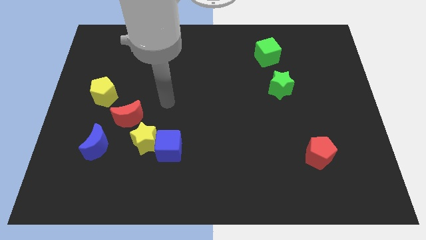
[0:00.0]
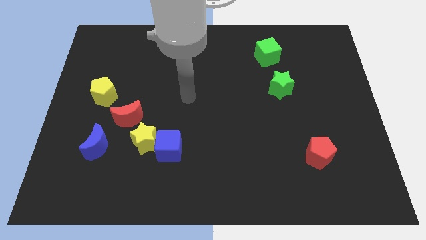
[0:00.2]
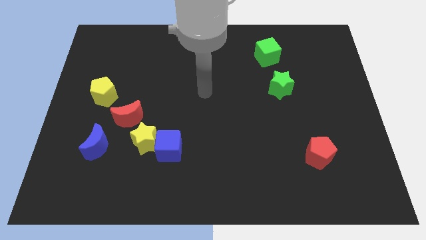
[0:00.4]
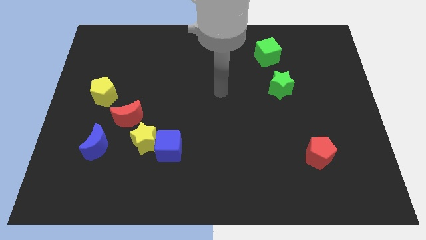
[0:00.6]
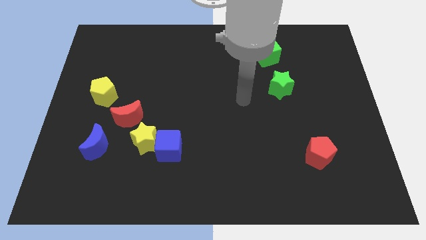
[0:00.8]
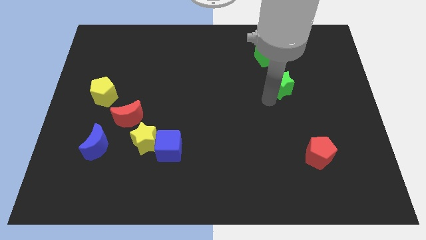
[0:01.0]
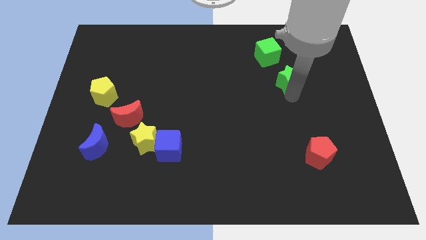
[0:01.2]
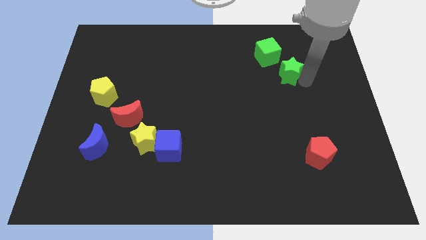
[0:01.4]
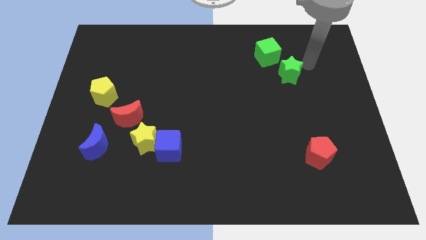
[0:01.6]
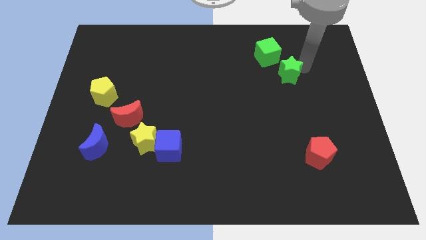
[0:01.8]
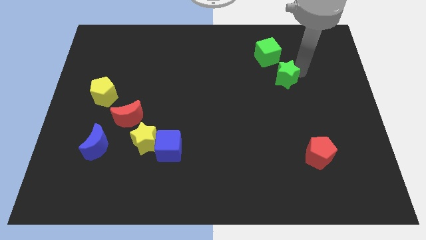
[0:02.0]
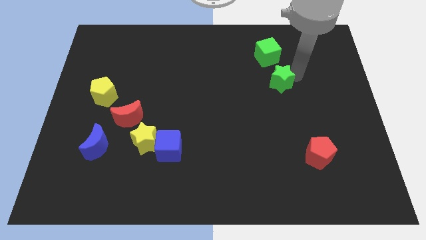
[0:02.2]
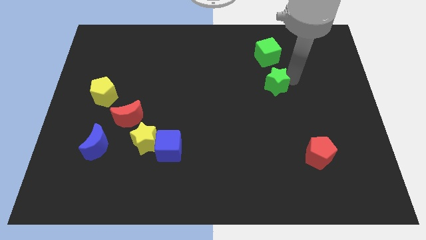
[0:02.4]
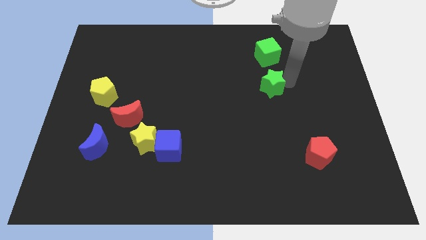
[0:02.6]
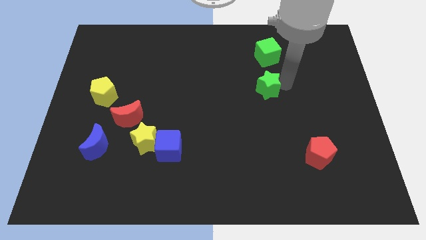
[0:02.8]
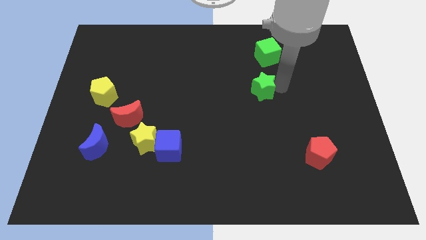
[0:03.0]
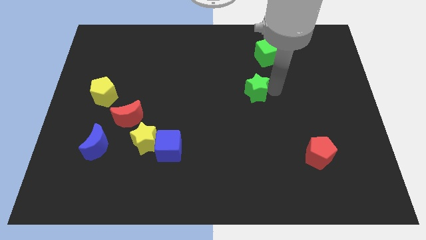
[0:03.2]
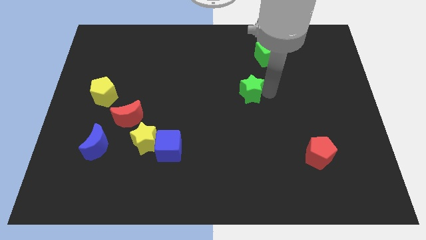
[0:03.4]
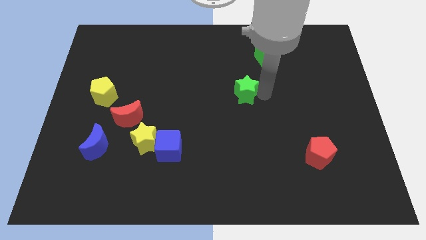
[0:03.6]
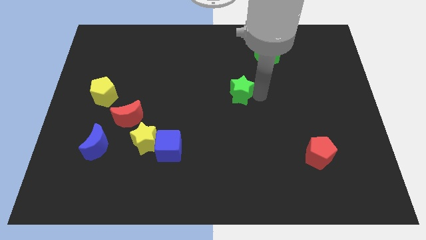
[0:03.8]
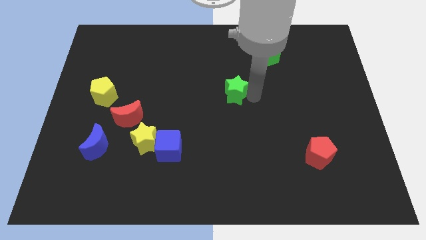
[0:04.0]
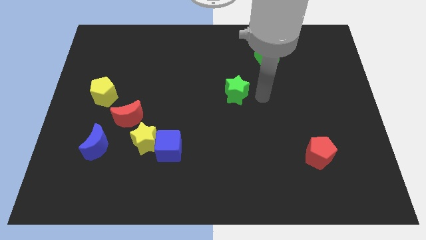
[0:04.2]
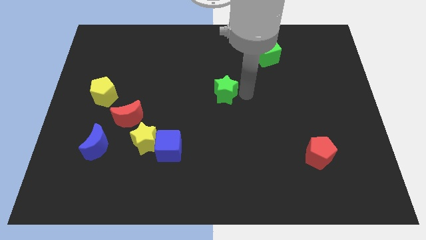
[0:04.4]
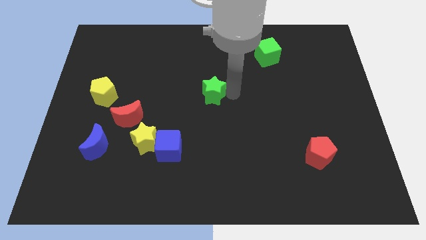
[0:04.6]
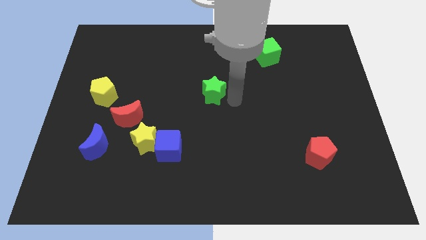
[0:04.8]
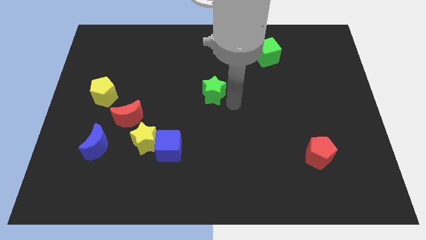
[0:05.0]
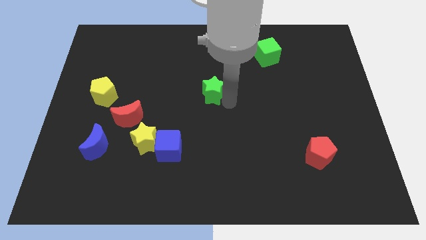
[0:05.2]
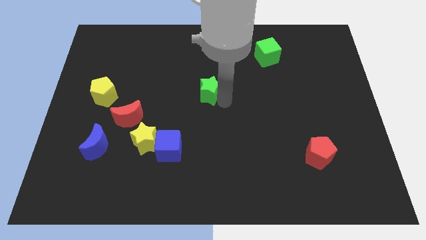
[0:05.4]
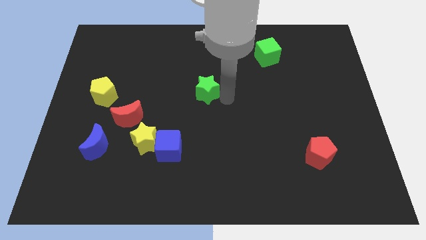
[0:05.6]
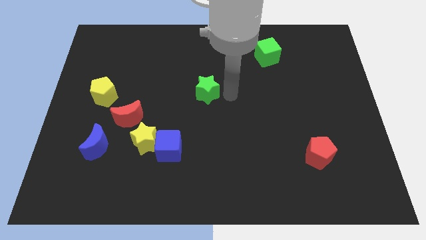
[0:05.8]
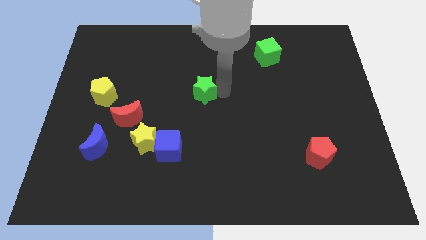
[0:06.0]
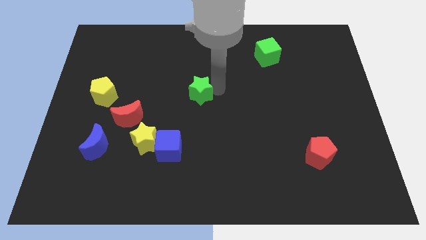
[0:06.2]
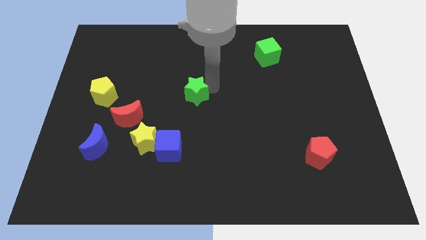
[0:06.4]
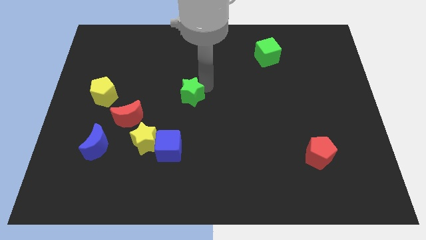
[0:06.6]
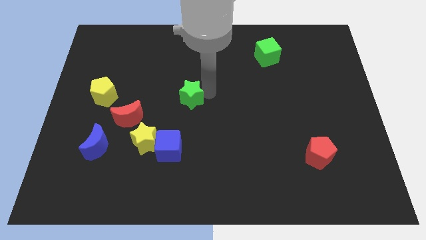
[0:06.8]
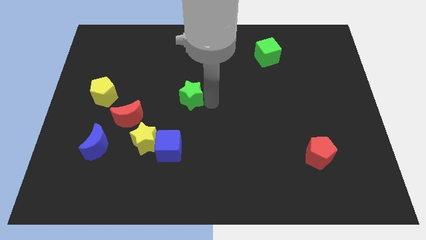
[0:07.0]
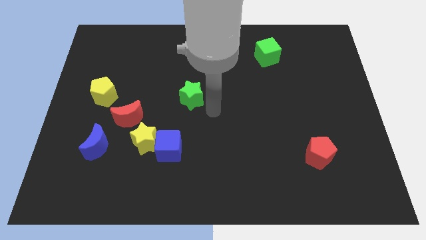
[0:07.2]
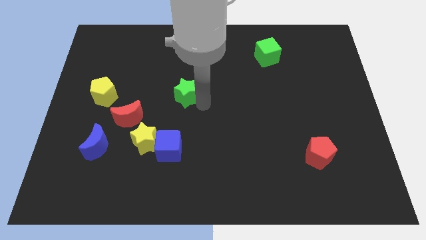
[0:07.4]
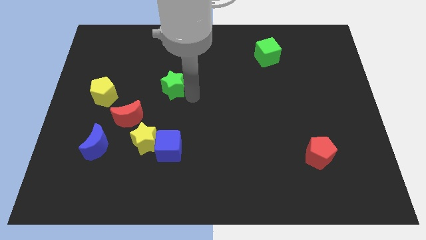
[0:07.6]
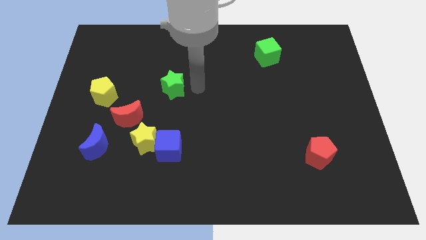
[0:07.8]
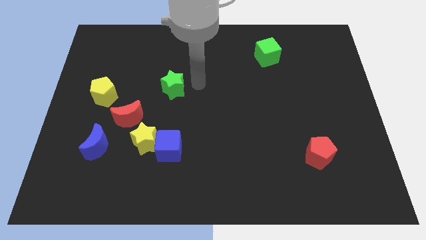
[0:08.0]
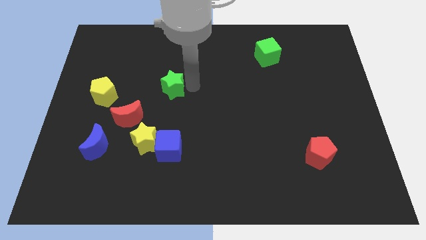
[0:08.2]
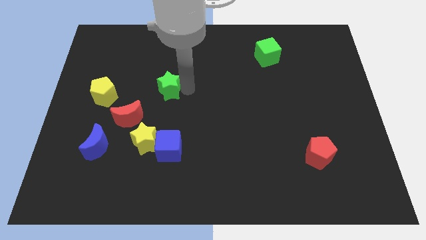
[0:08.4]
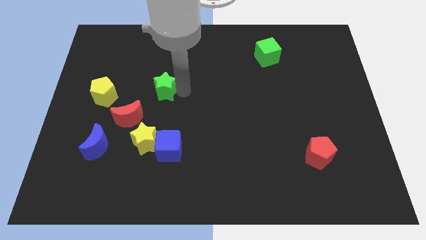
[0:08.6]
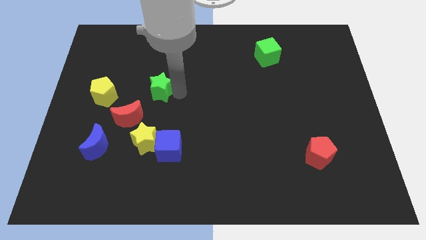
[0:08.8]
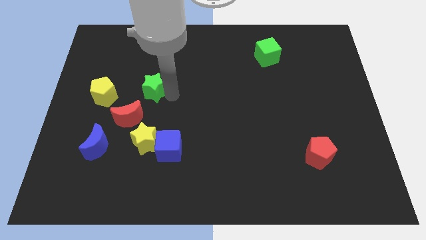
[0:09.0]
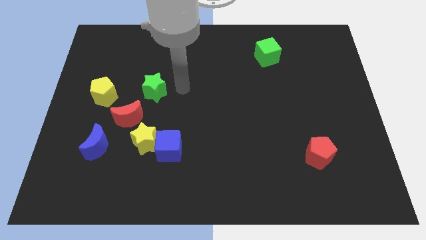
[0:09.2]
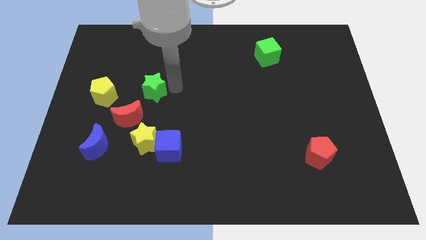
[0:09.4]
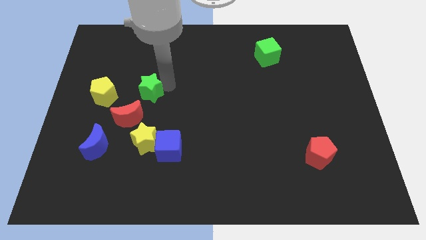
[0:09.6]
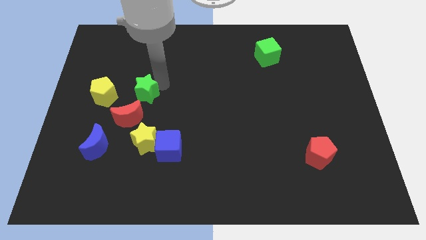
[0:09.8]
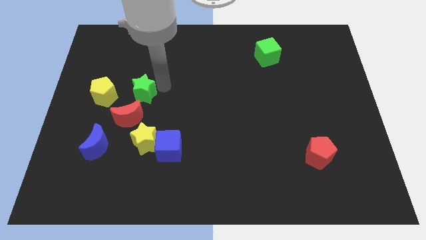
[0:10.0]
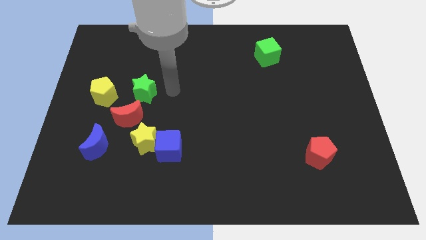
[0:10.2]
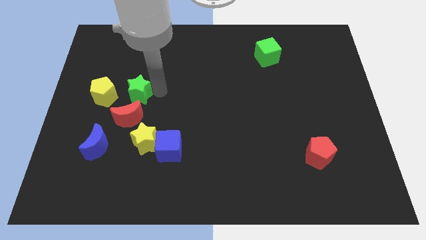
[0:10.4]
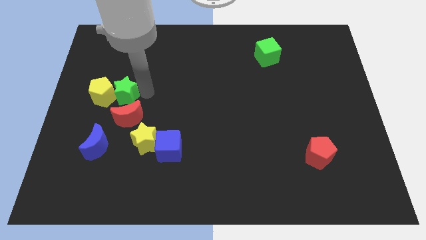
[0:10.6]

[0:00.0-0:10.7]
push the green star to the yellow pentagon

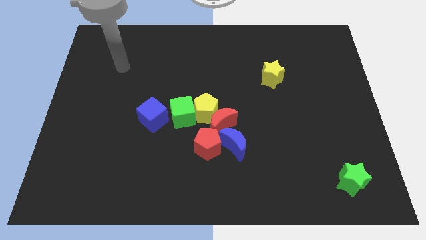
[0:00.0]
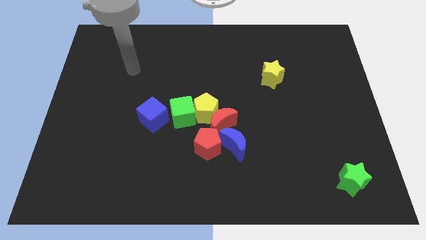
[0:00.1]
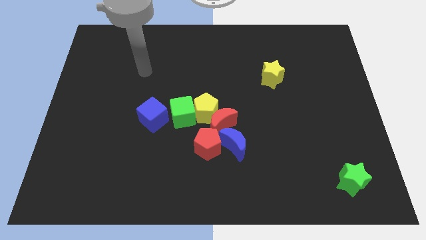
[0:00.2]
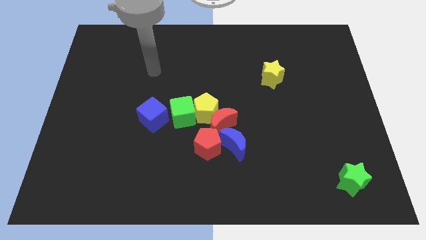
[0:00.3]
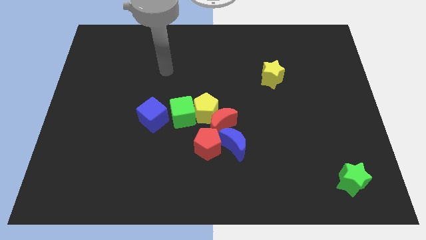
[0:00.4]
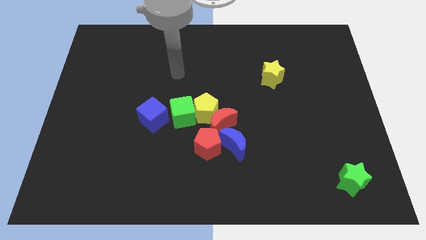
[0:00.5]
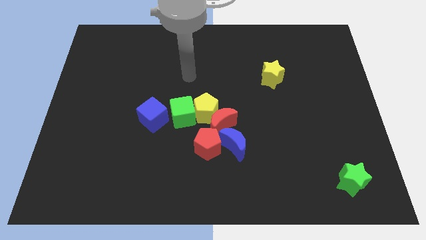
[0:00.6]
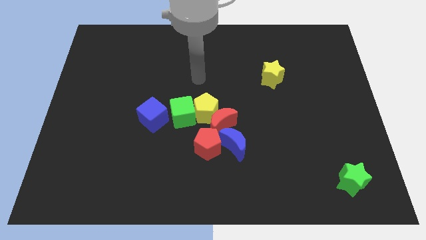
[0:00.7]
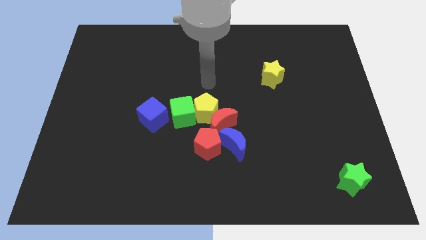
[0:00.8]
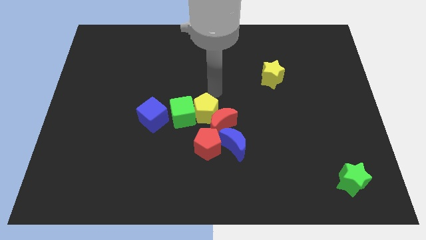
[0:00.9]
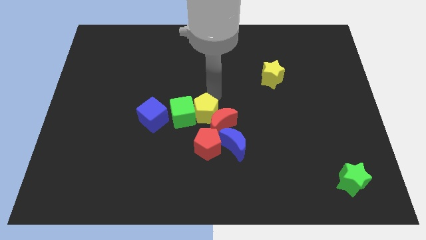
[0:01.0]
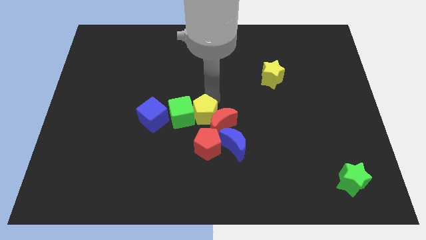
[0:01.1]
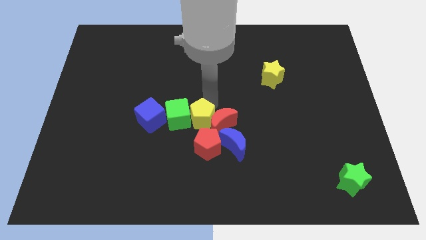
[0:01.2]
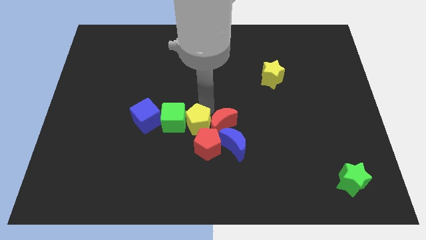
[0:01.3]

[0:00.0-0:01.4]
push the yellow pentagon towards the red pentagon
